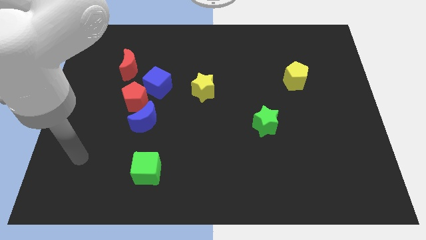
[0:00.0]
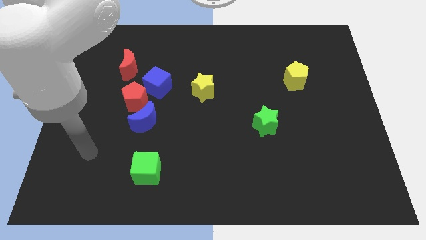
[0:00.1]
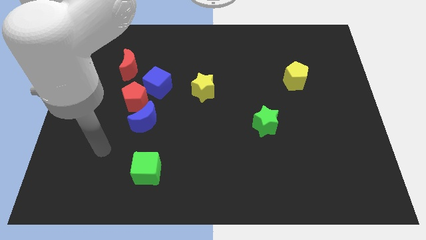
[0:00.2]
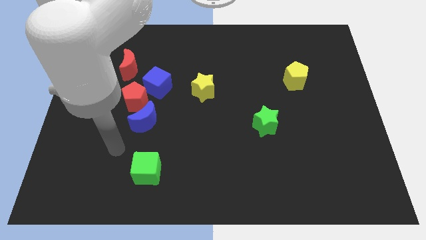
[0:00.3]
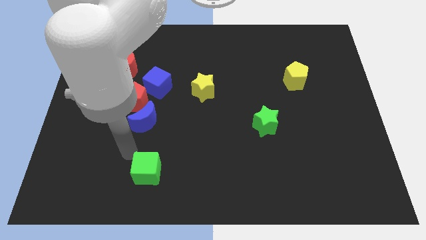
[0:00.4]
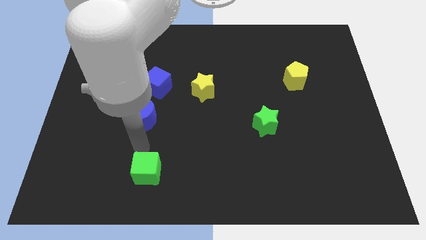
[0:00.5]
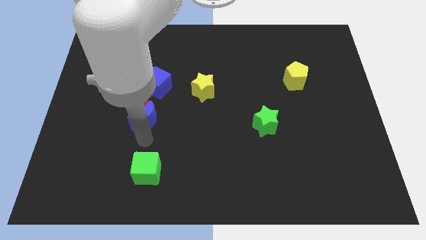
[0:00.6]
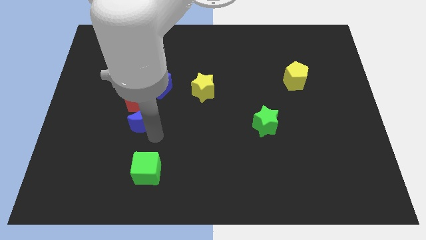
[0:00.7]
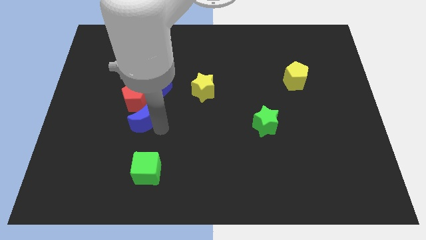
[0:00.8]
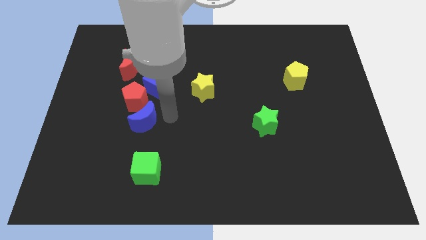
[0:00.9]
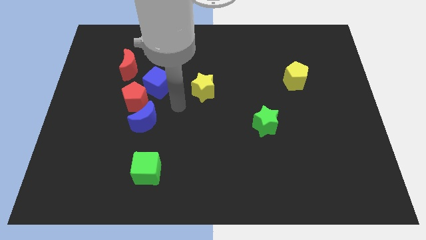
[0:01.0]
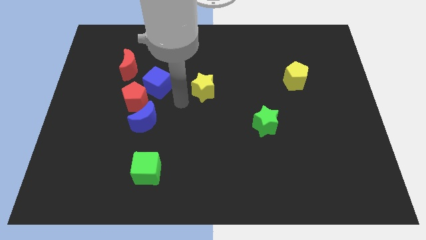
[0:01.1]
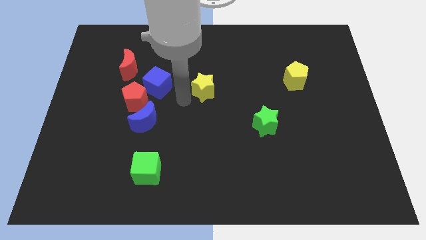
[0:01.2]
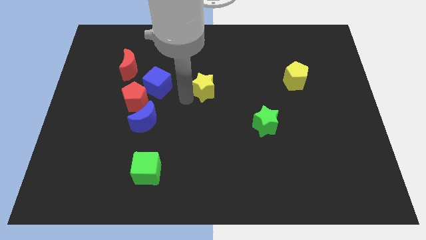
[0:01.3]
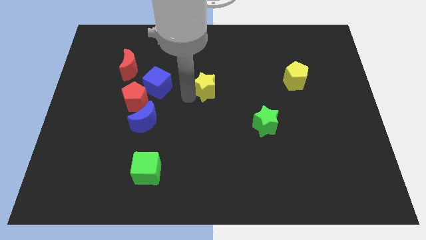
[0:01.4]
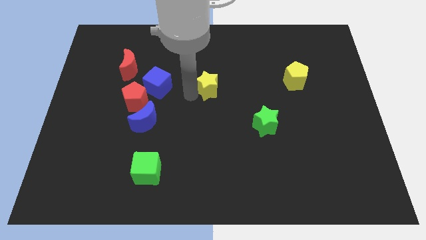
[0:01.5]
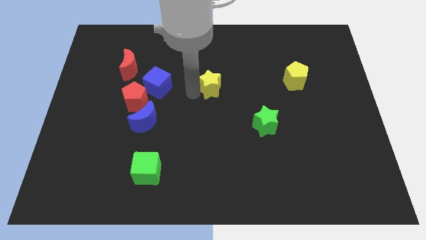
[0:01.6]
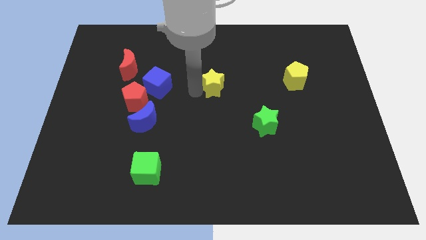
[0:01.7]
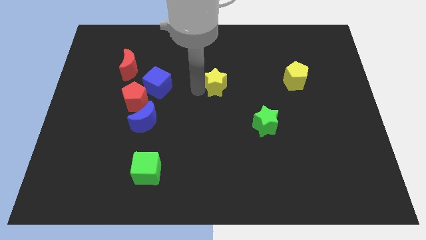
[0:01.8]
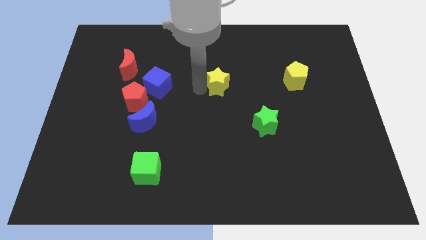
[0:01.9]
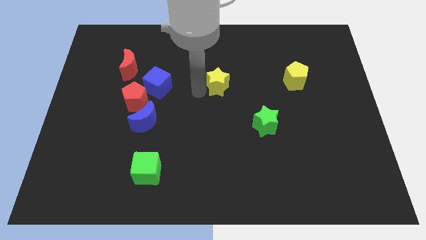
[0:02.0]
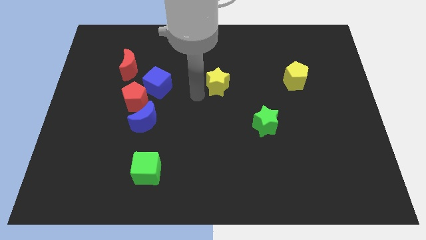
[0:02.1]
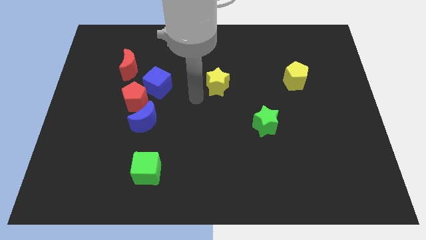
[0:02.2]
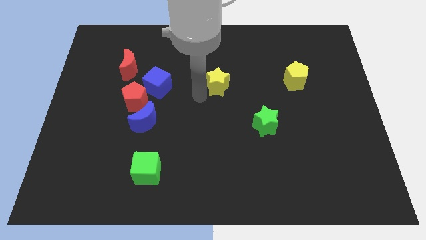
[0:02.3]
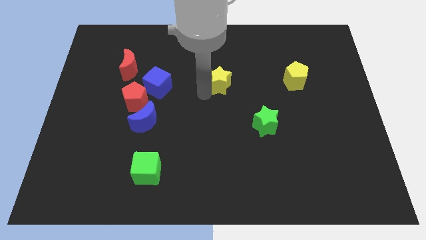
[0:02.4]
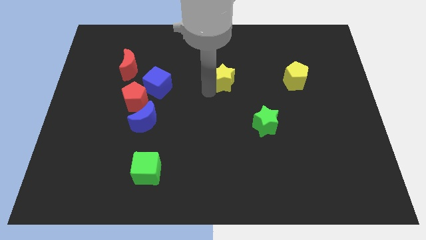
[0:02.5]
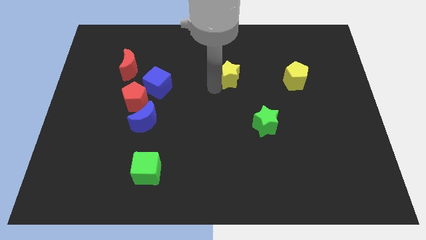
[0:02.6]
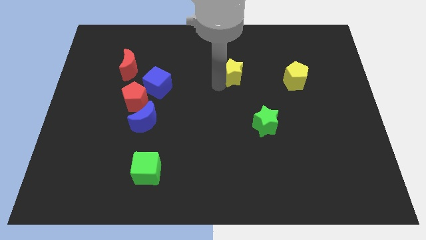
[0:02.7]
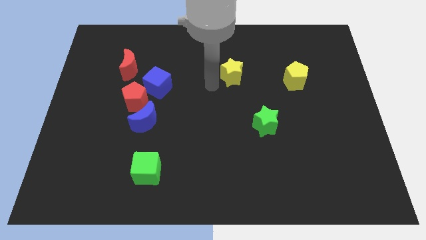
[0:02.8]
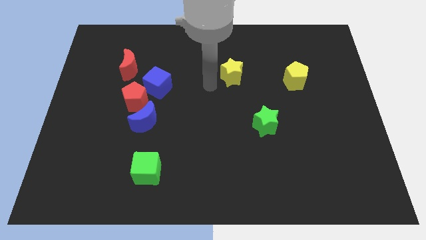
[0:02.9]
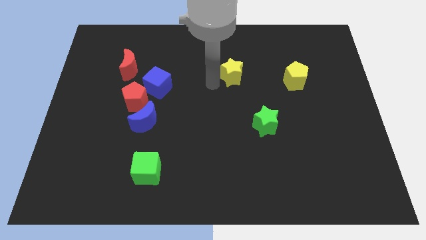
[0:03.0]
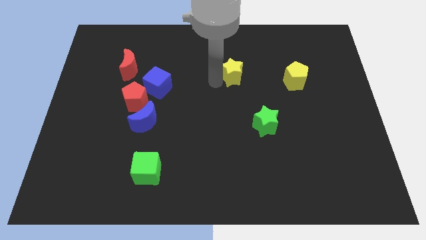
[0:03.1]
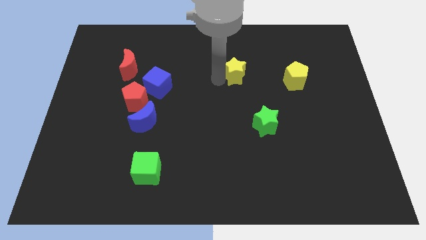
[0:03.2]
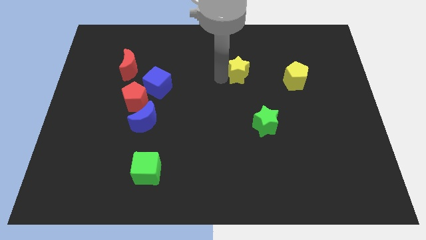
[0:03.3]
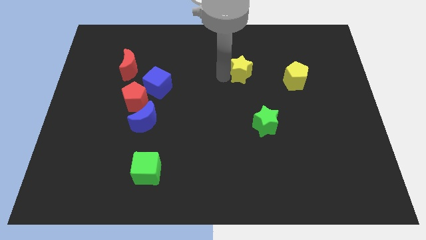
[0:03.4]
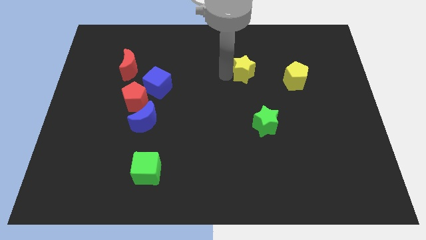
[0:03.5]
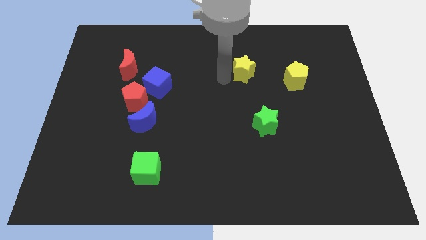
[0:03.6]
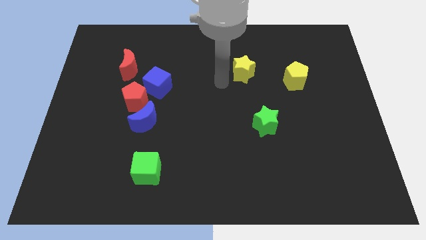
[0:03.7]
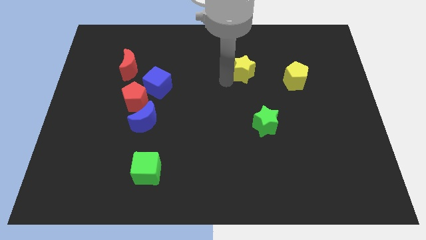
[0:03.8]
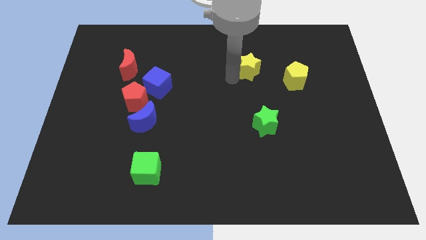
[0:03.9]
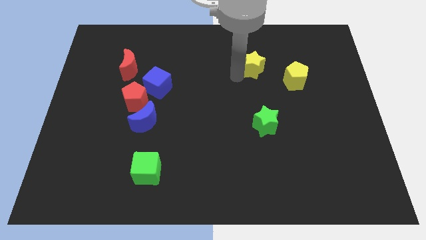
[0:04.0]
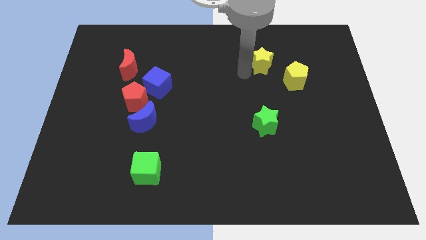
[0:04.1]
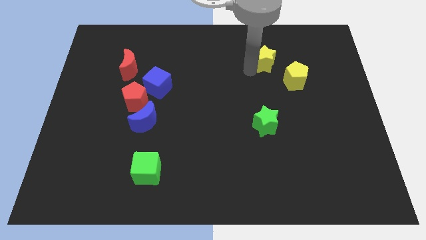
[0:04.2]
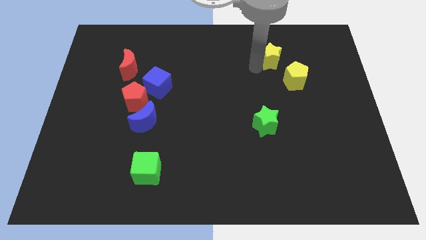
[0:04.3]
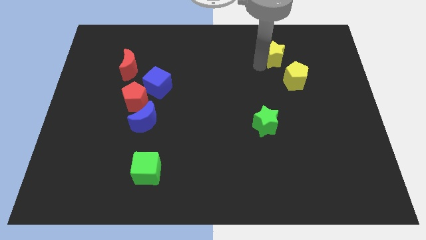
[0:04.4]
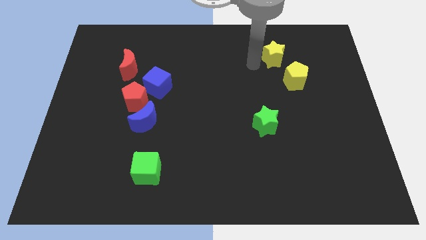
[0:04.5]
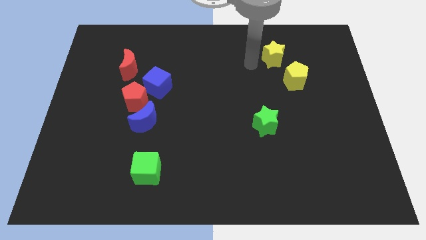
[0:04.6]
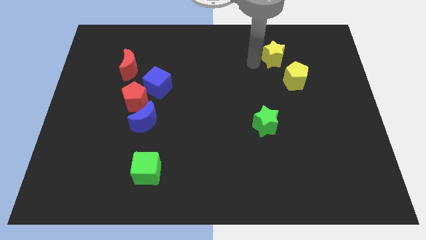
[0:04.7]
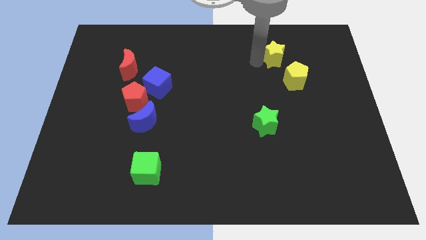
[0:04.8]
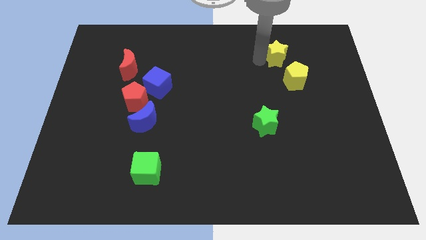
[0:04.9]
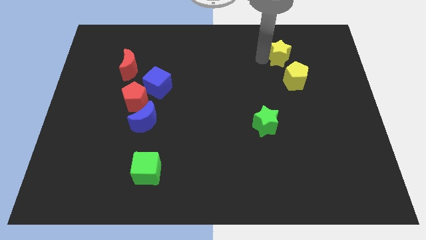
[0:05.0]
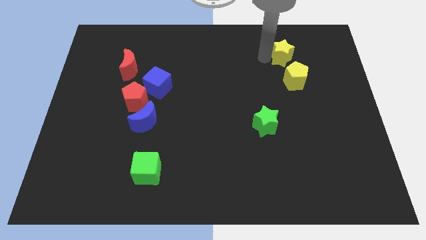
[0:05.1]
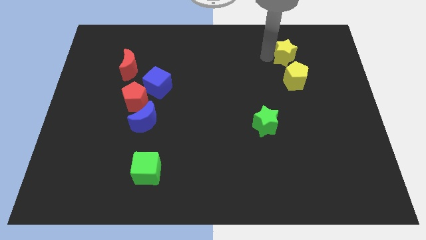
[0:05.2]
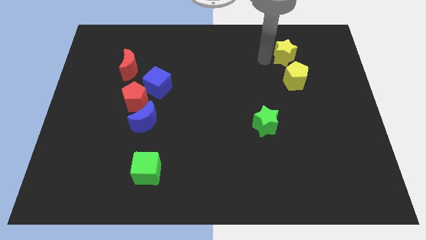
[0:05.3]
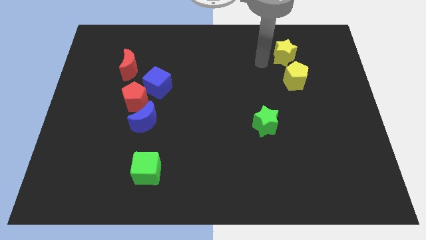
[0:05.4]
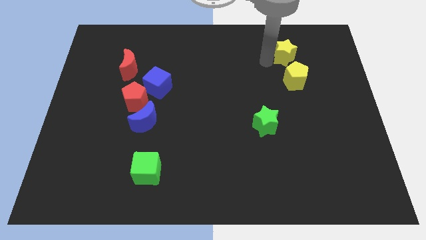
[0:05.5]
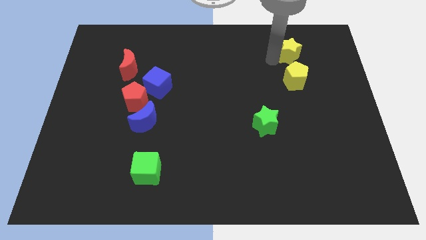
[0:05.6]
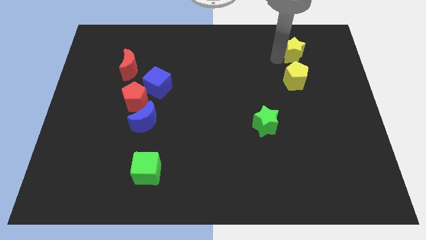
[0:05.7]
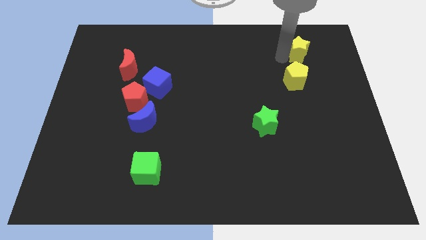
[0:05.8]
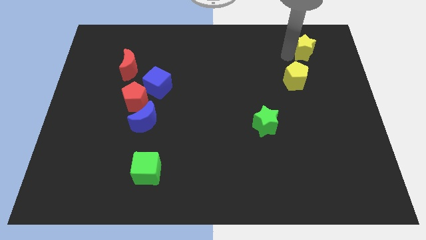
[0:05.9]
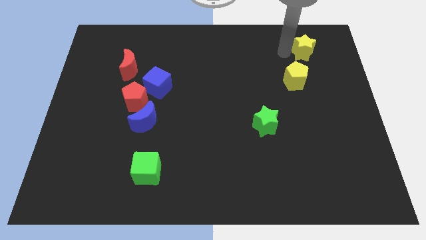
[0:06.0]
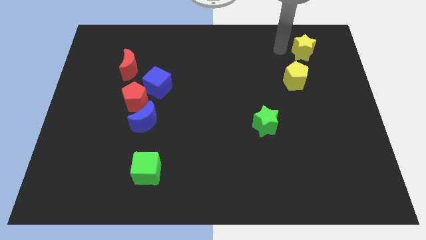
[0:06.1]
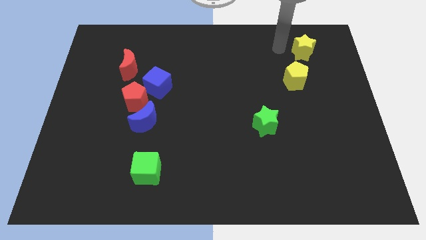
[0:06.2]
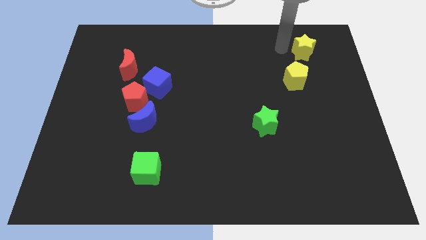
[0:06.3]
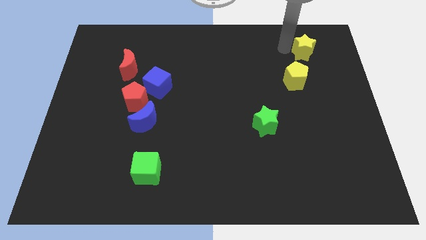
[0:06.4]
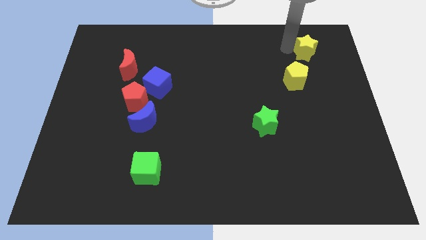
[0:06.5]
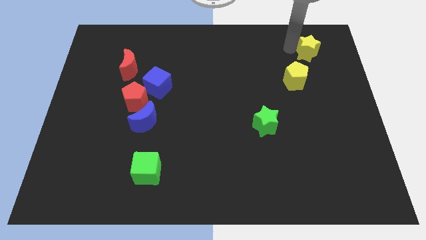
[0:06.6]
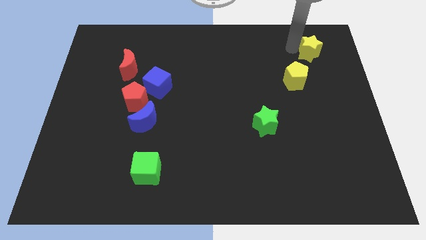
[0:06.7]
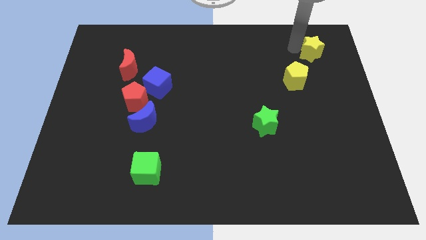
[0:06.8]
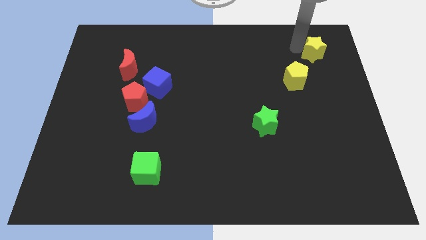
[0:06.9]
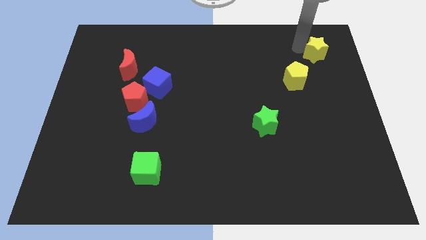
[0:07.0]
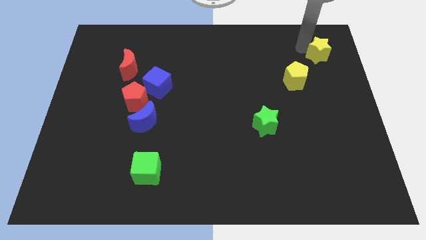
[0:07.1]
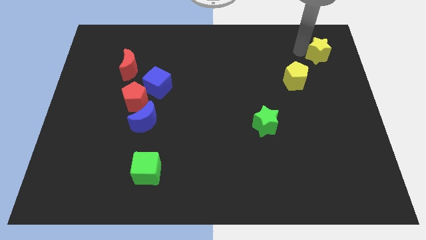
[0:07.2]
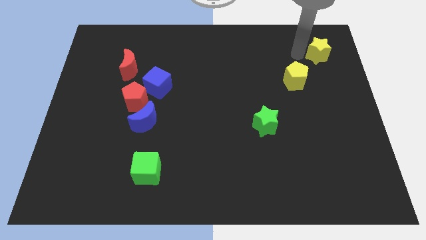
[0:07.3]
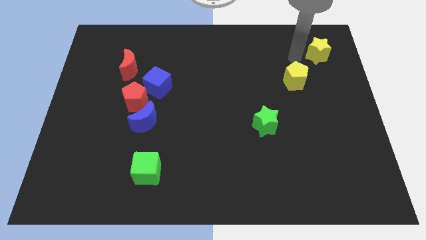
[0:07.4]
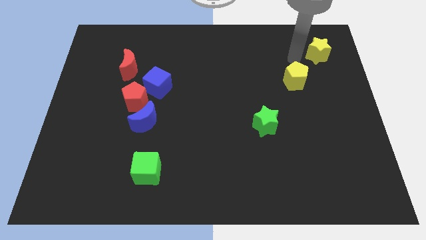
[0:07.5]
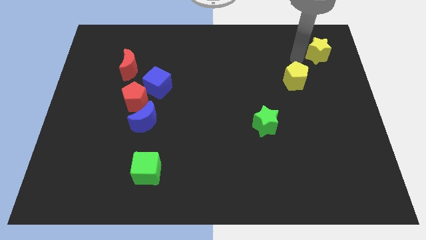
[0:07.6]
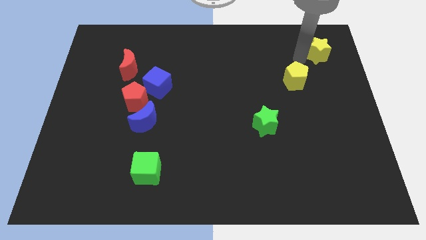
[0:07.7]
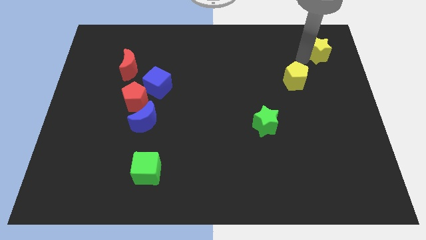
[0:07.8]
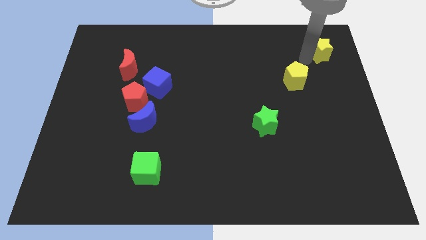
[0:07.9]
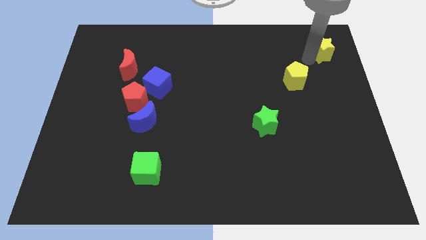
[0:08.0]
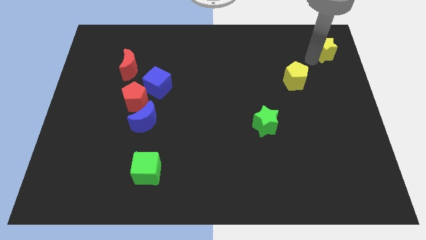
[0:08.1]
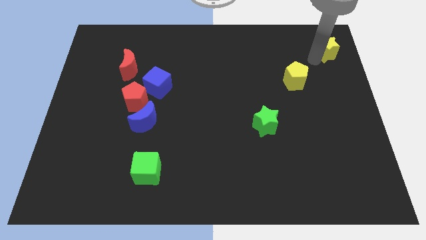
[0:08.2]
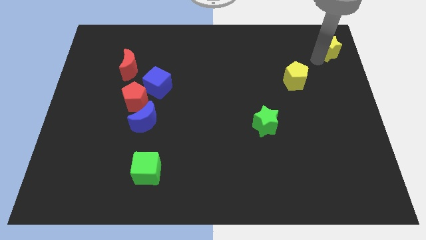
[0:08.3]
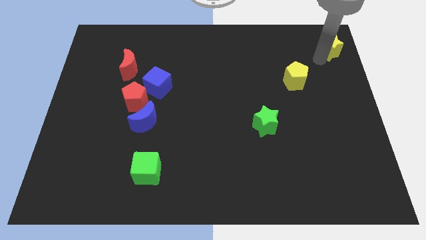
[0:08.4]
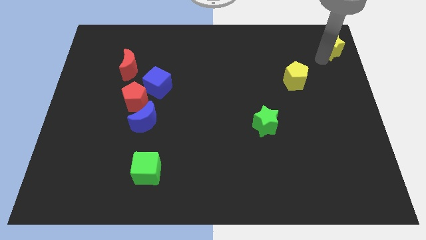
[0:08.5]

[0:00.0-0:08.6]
put the yellow star to the upper right corner
